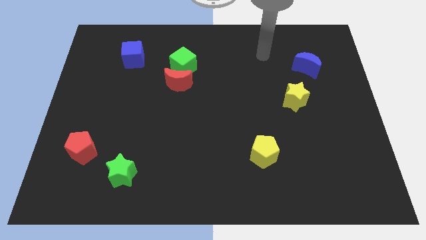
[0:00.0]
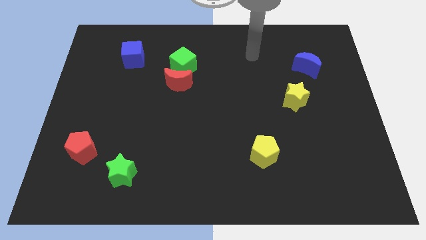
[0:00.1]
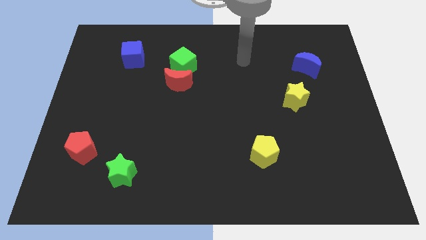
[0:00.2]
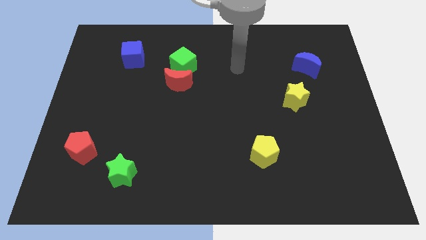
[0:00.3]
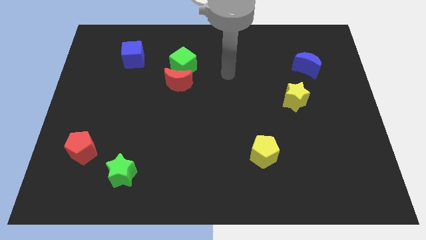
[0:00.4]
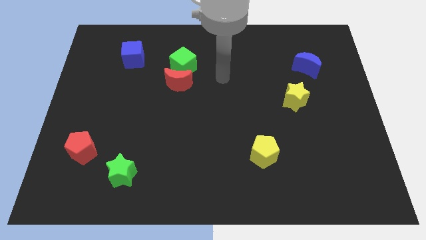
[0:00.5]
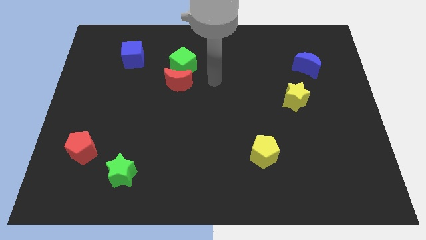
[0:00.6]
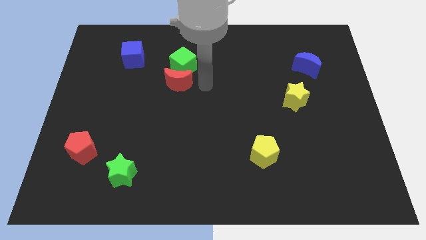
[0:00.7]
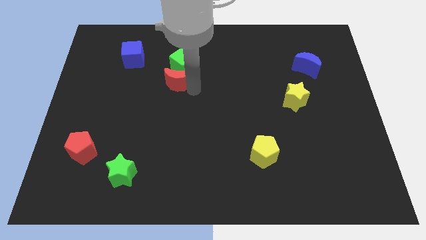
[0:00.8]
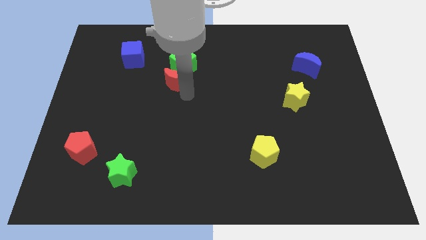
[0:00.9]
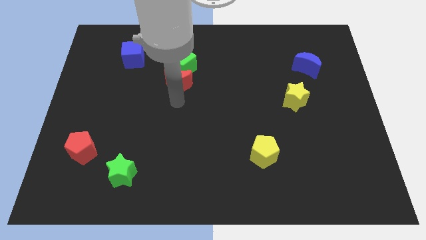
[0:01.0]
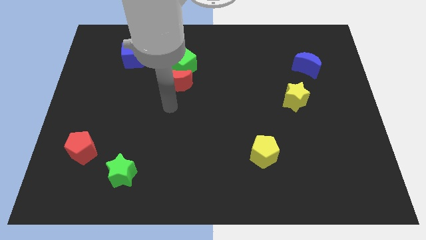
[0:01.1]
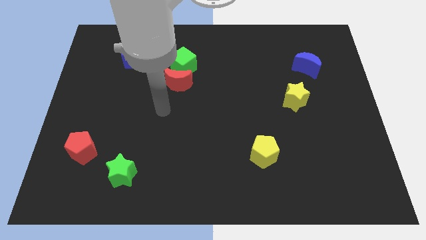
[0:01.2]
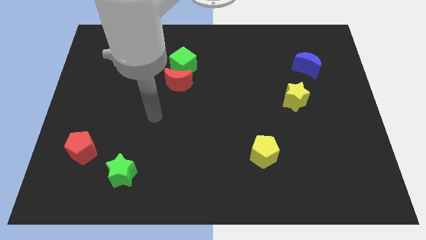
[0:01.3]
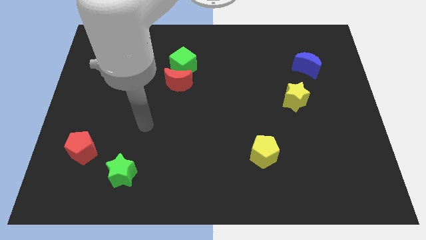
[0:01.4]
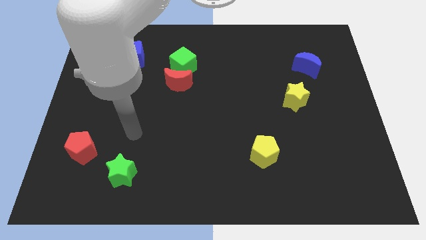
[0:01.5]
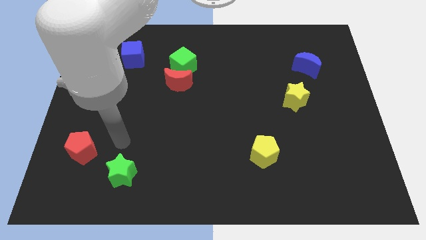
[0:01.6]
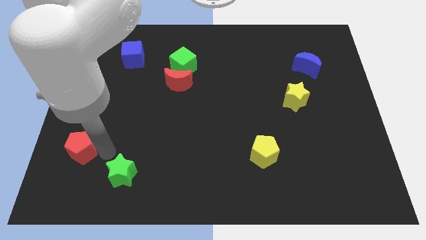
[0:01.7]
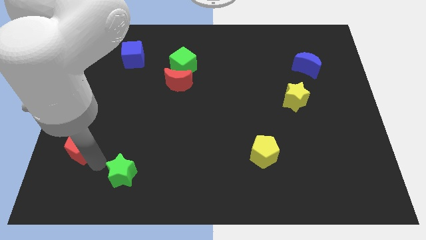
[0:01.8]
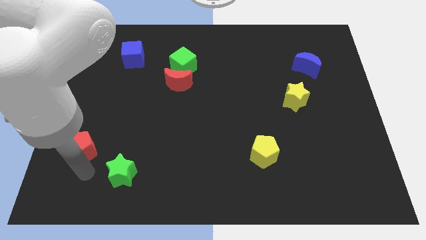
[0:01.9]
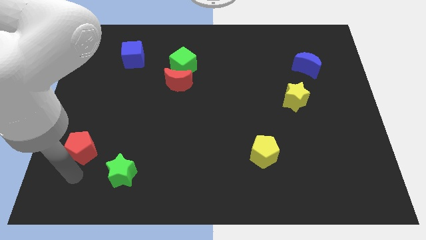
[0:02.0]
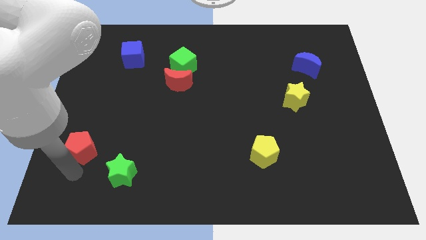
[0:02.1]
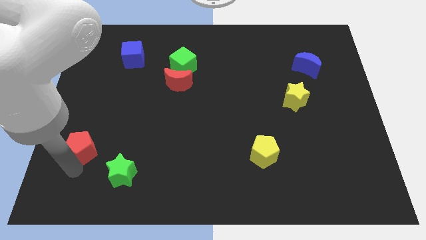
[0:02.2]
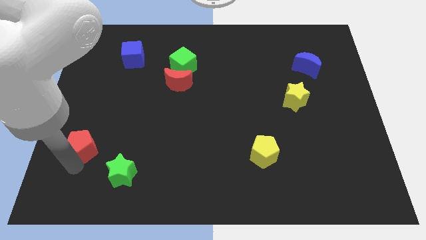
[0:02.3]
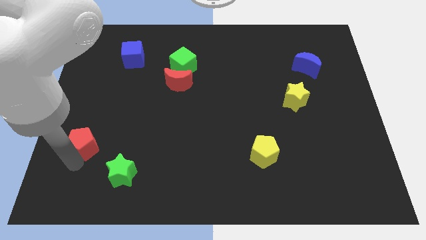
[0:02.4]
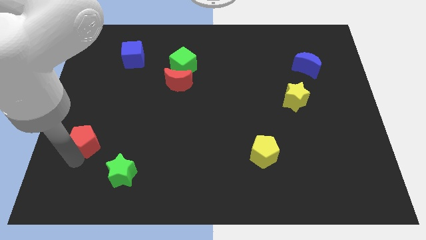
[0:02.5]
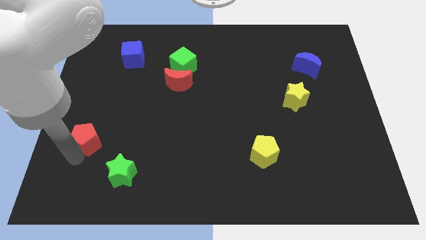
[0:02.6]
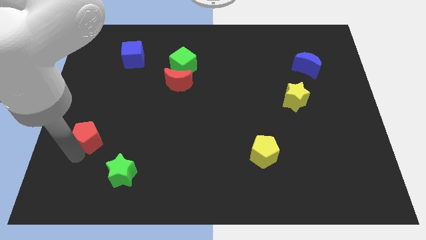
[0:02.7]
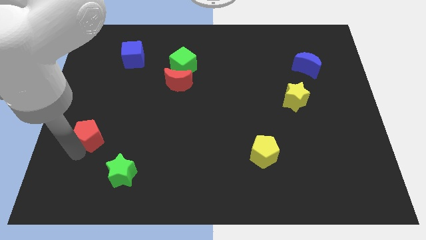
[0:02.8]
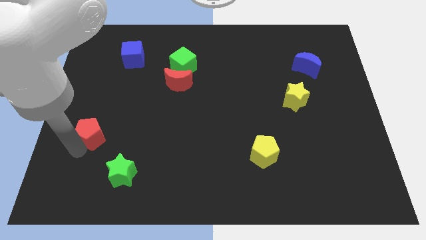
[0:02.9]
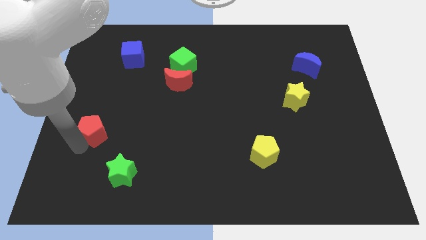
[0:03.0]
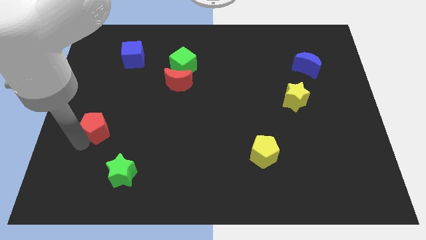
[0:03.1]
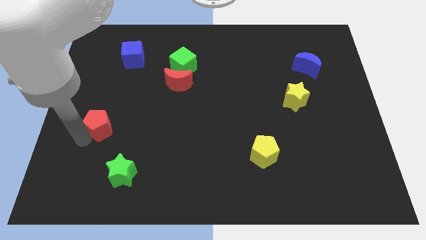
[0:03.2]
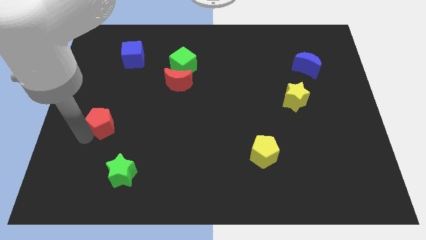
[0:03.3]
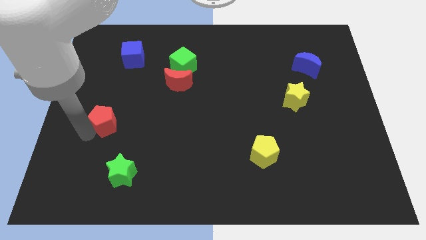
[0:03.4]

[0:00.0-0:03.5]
push the red pentagon upwards a bit

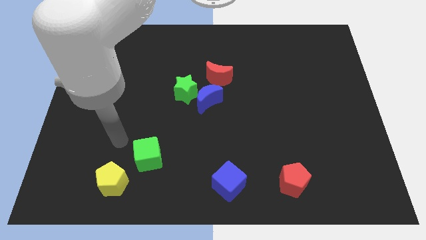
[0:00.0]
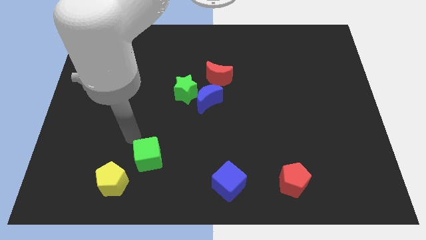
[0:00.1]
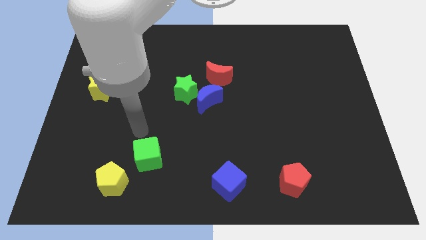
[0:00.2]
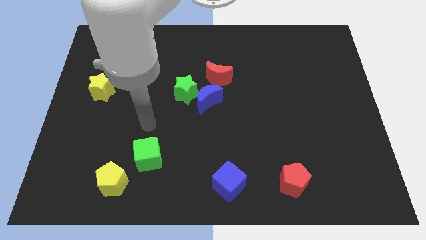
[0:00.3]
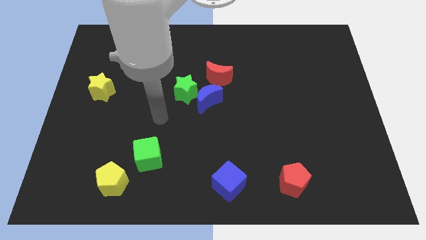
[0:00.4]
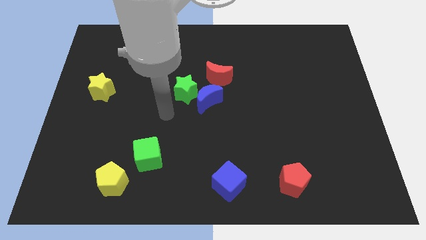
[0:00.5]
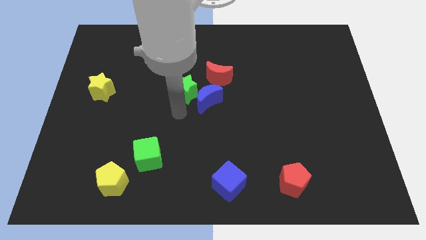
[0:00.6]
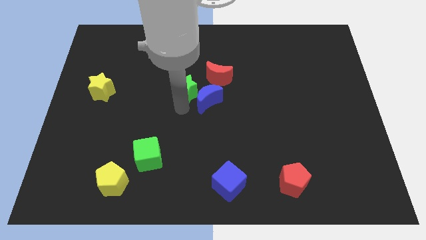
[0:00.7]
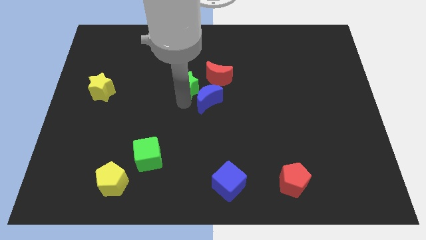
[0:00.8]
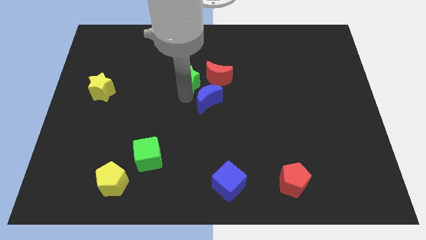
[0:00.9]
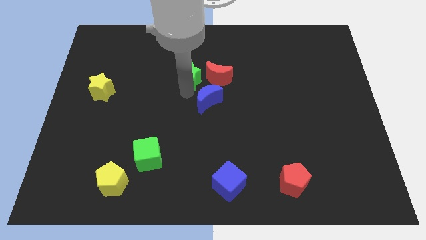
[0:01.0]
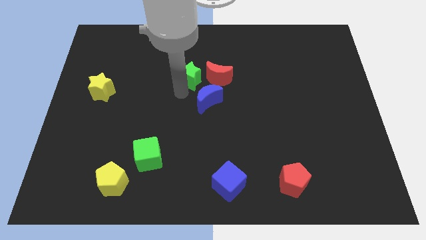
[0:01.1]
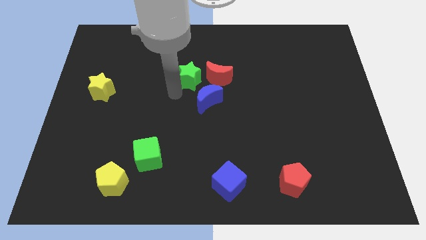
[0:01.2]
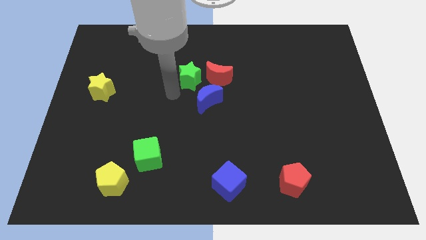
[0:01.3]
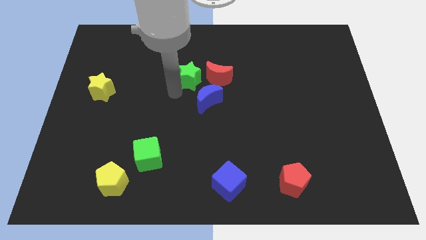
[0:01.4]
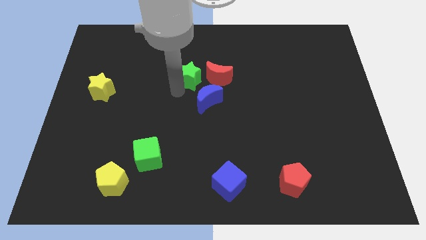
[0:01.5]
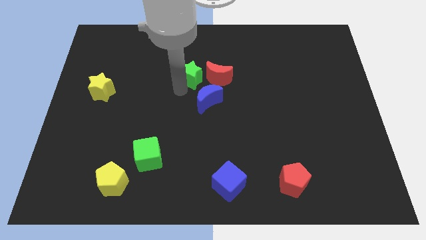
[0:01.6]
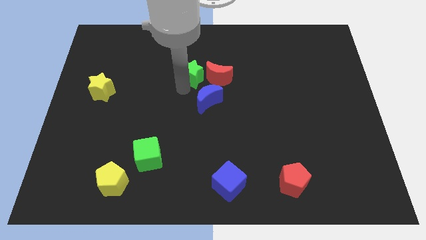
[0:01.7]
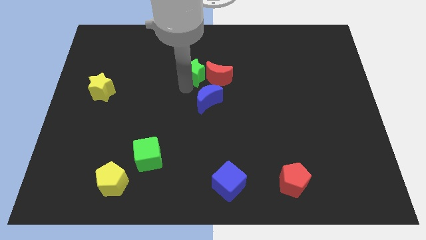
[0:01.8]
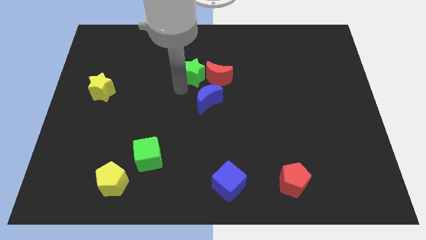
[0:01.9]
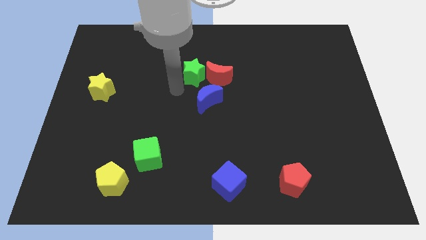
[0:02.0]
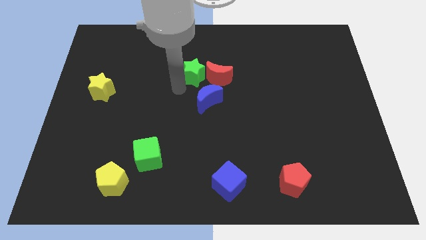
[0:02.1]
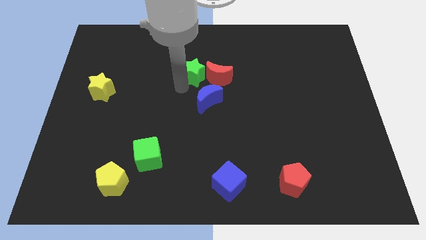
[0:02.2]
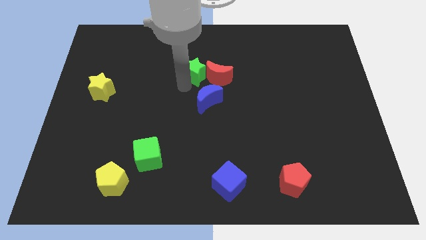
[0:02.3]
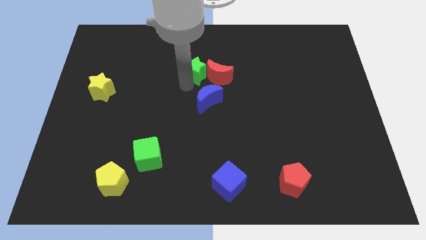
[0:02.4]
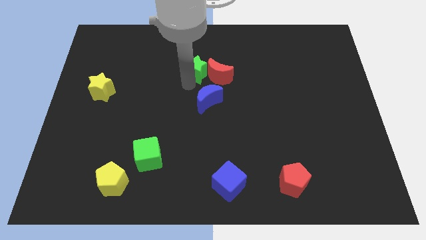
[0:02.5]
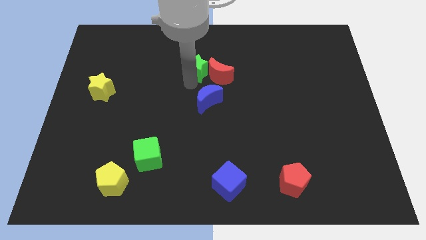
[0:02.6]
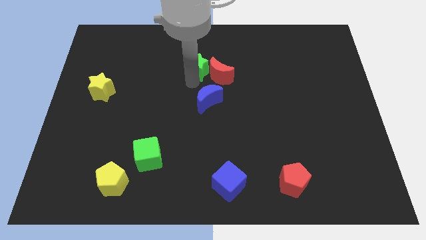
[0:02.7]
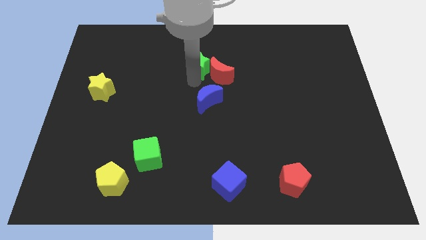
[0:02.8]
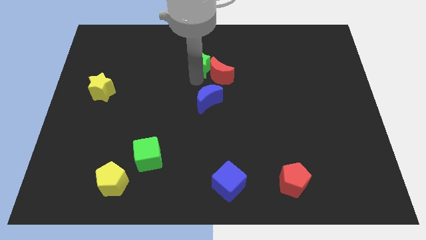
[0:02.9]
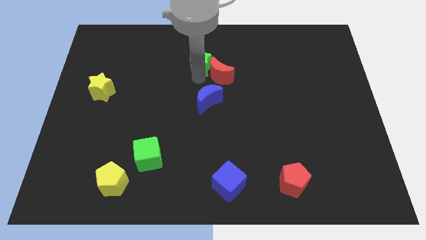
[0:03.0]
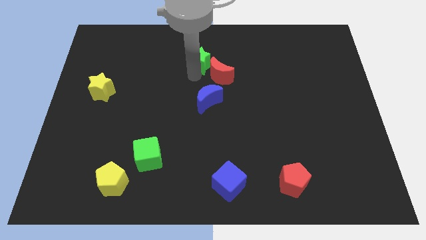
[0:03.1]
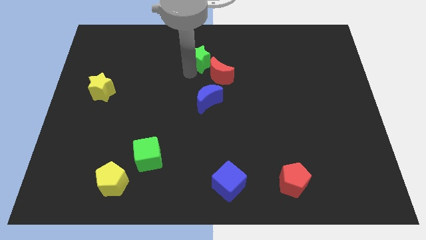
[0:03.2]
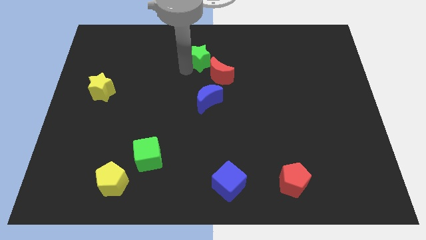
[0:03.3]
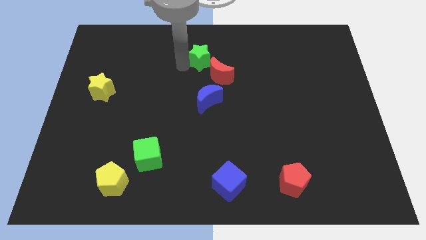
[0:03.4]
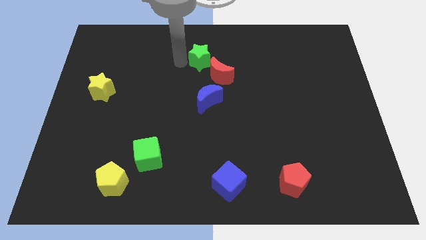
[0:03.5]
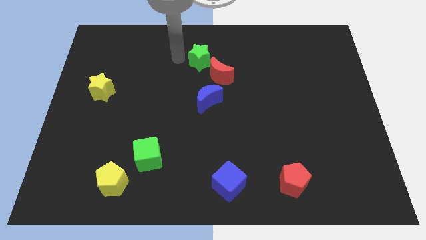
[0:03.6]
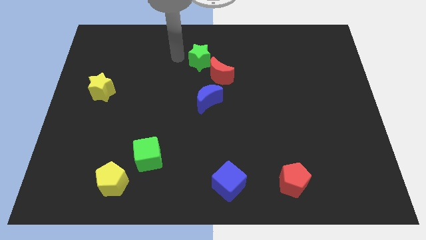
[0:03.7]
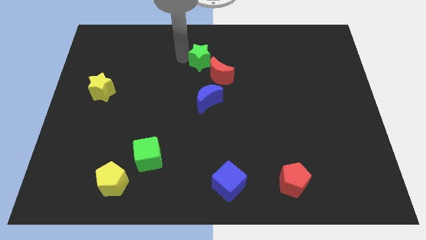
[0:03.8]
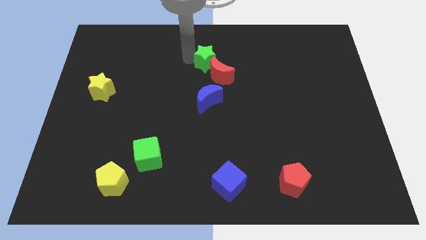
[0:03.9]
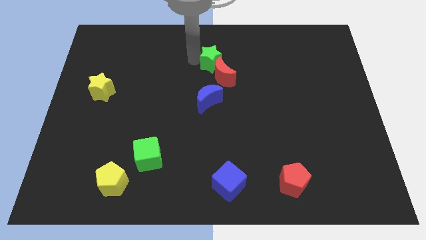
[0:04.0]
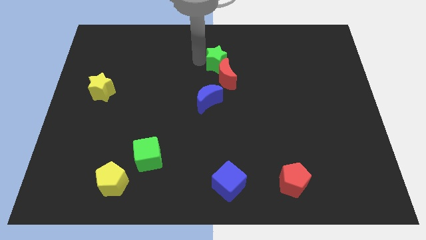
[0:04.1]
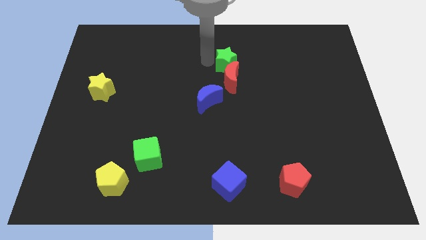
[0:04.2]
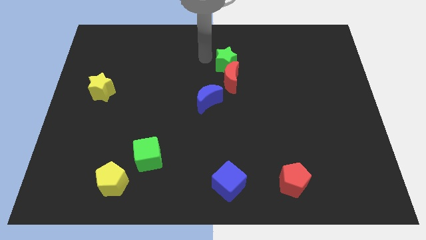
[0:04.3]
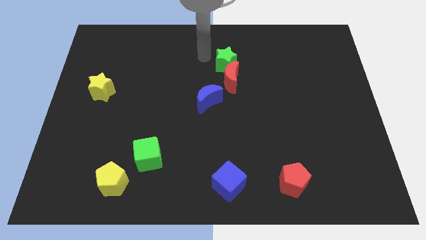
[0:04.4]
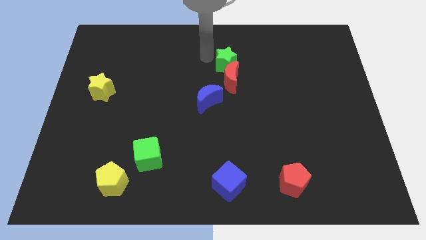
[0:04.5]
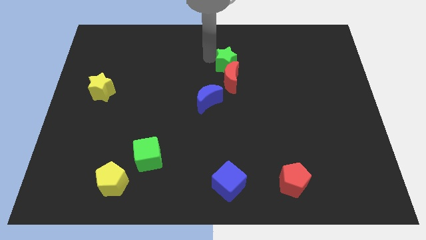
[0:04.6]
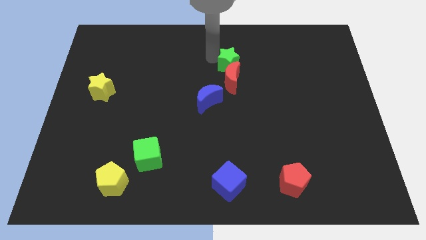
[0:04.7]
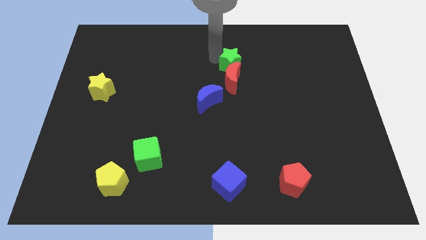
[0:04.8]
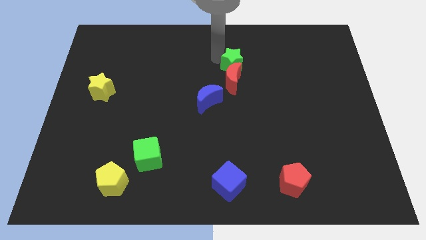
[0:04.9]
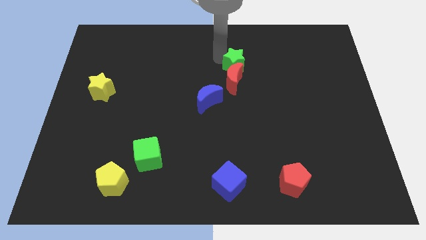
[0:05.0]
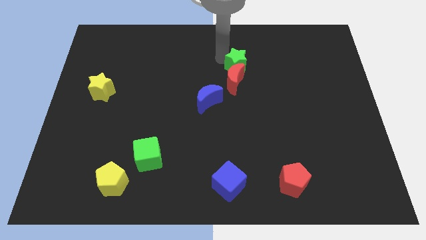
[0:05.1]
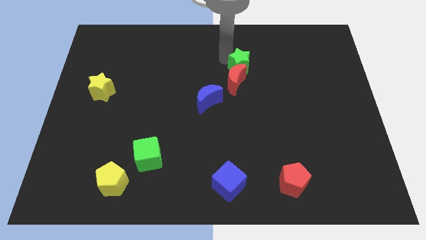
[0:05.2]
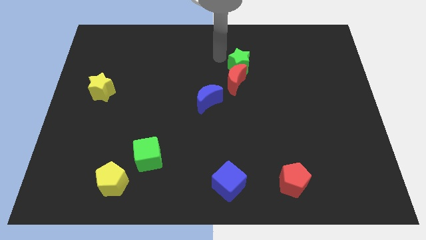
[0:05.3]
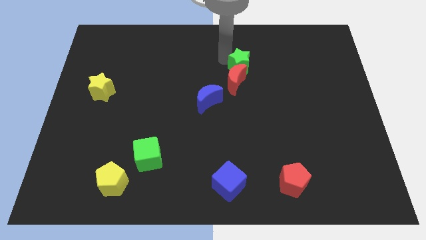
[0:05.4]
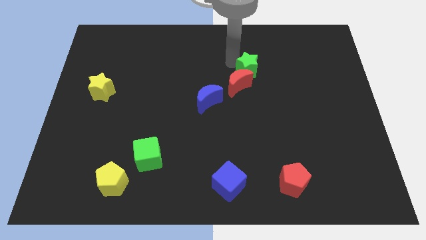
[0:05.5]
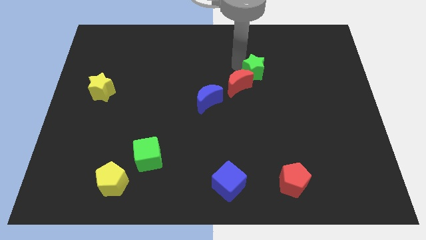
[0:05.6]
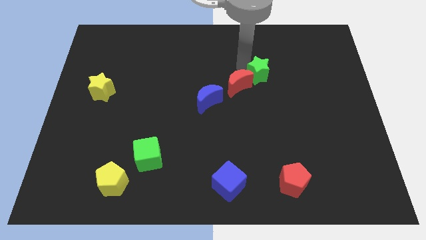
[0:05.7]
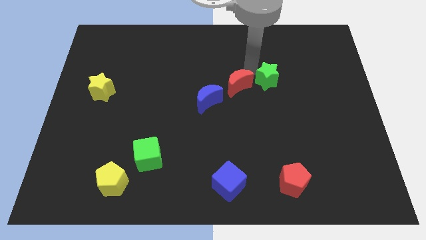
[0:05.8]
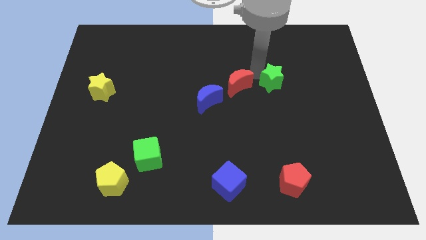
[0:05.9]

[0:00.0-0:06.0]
slide the green star right
